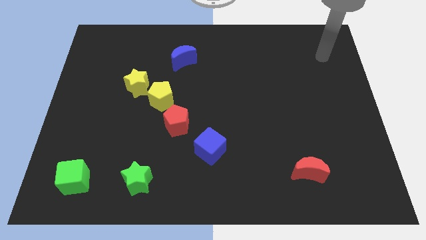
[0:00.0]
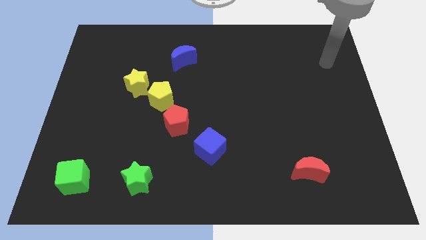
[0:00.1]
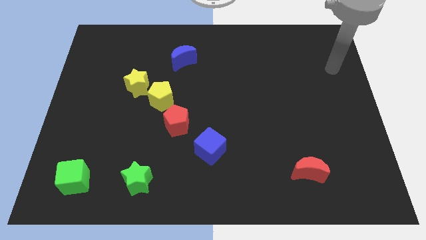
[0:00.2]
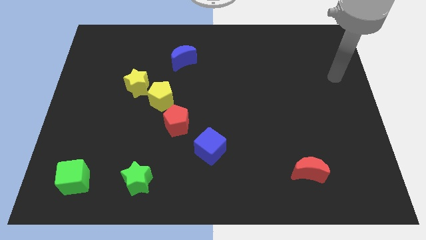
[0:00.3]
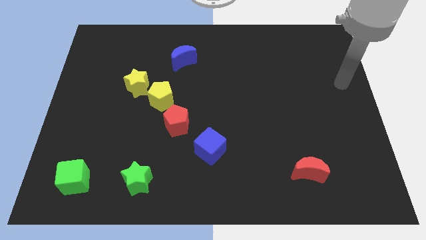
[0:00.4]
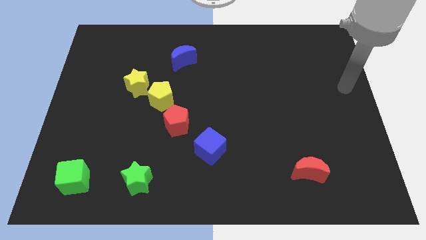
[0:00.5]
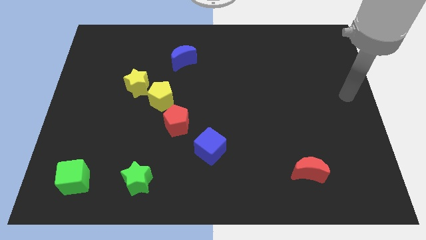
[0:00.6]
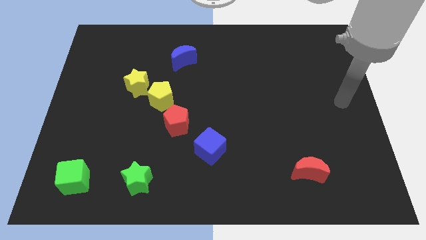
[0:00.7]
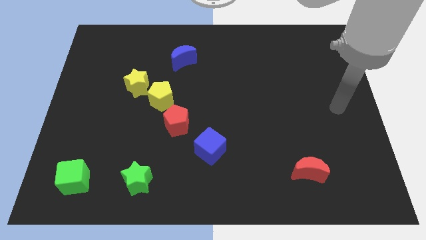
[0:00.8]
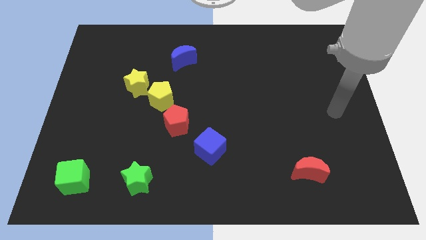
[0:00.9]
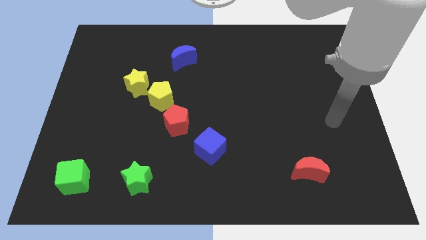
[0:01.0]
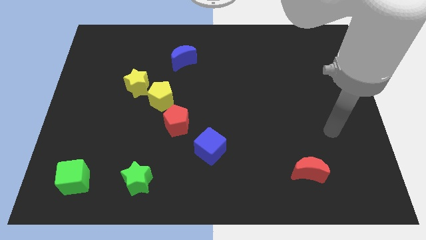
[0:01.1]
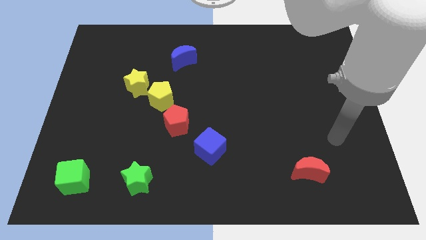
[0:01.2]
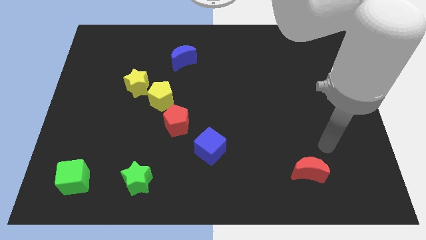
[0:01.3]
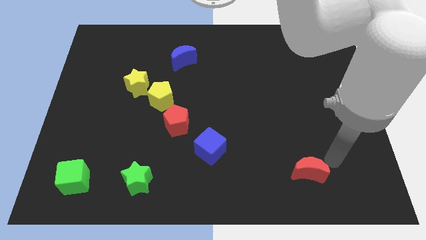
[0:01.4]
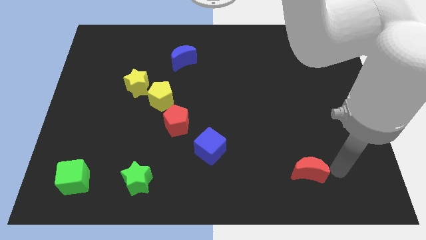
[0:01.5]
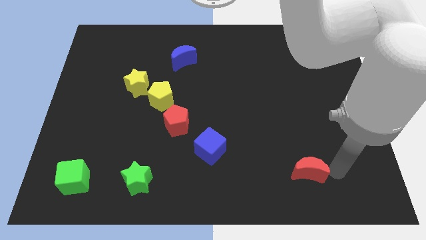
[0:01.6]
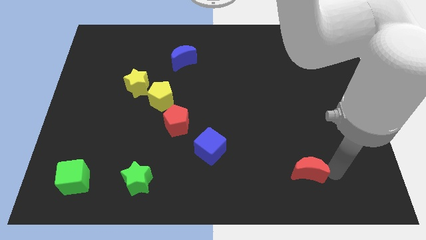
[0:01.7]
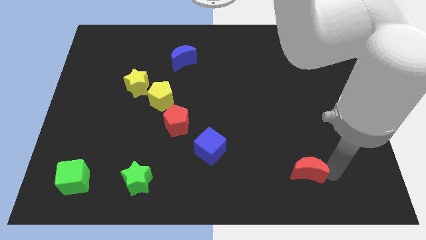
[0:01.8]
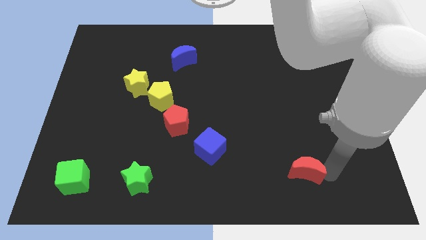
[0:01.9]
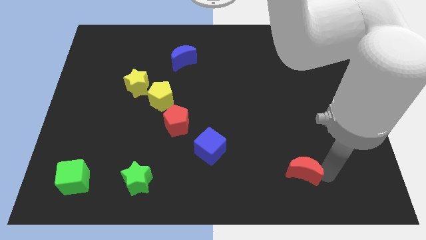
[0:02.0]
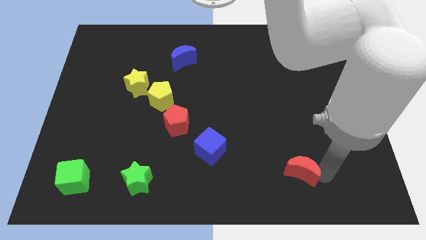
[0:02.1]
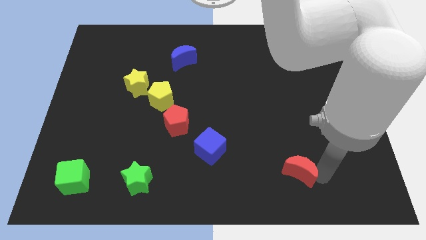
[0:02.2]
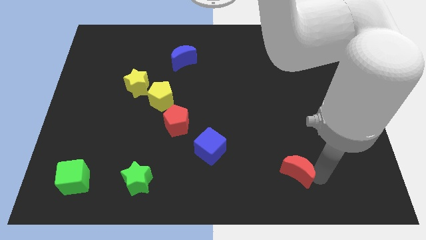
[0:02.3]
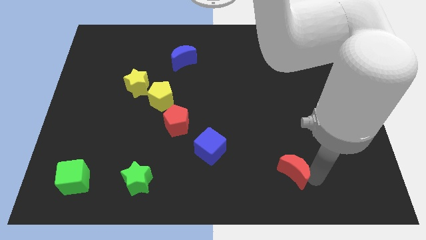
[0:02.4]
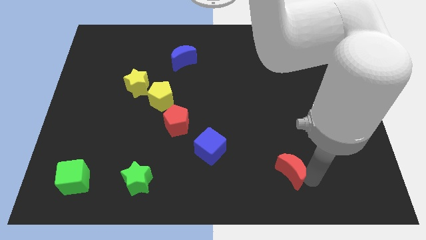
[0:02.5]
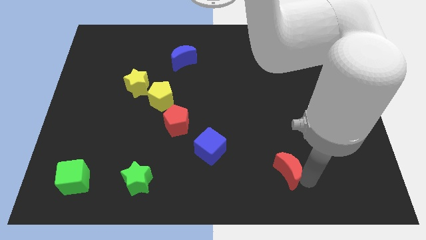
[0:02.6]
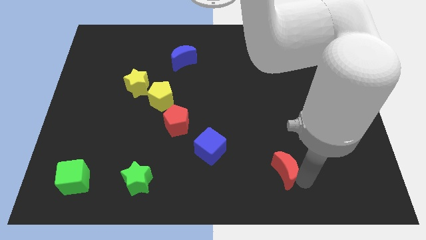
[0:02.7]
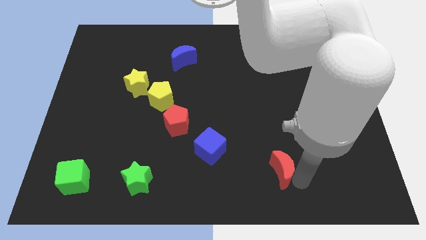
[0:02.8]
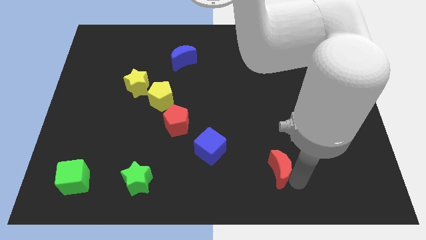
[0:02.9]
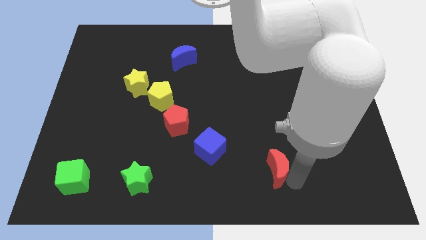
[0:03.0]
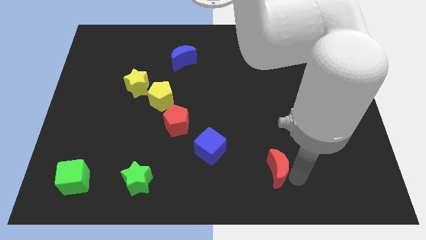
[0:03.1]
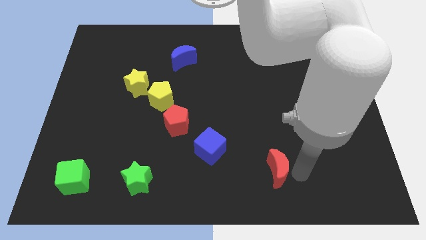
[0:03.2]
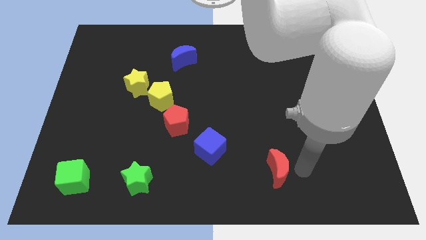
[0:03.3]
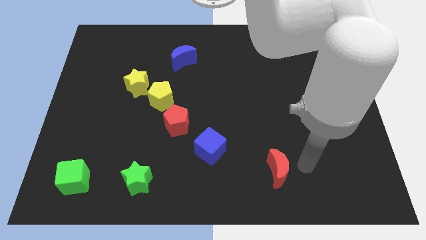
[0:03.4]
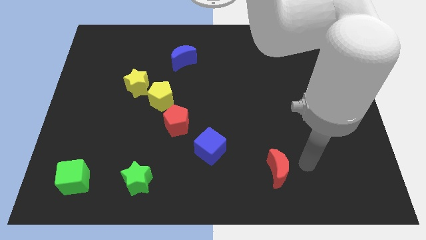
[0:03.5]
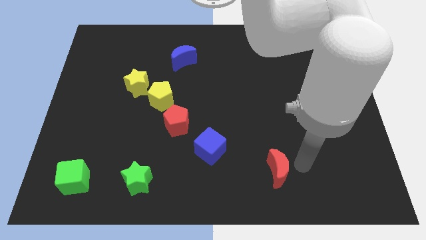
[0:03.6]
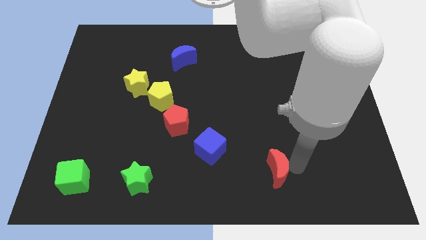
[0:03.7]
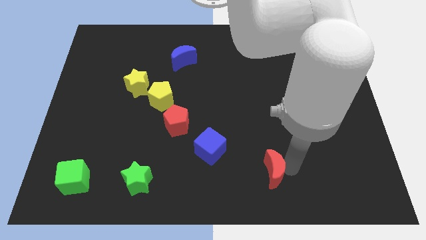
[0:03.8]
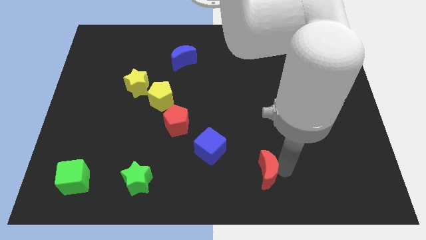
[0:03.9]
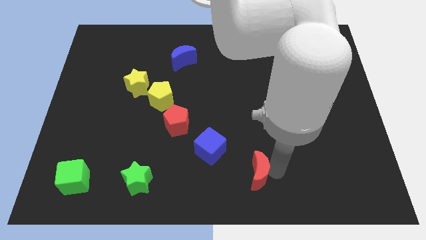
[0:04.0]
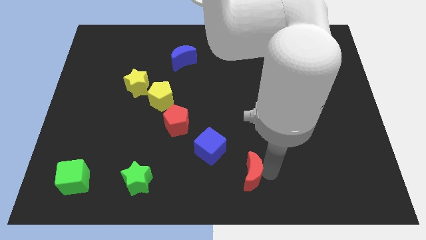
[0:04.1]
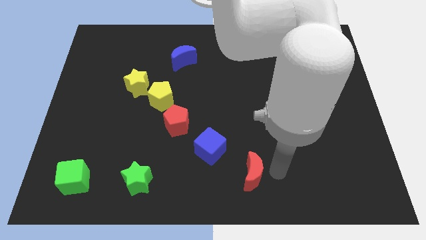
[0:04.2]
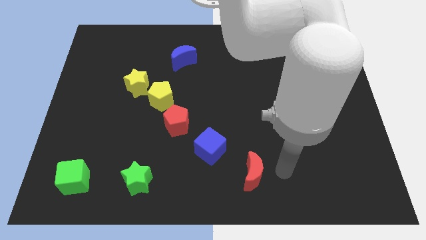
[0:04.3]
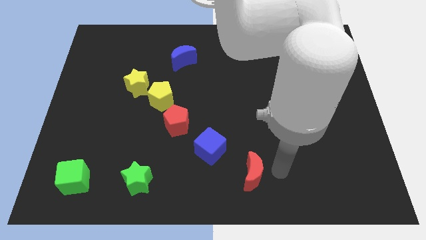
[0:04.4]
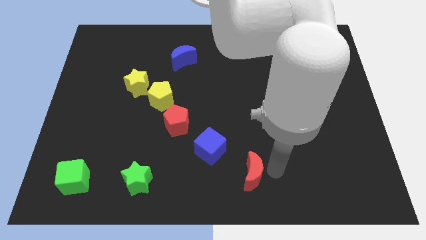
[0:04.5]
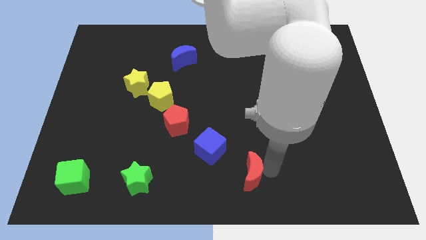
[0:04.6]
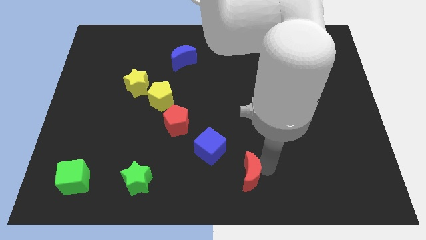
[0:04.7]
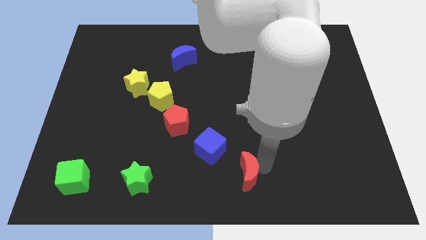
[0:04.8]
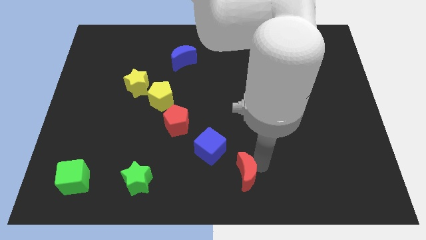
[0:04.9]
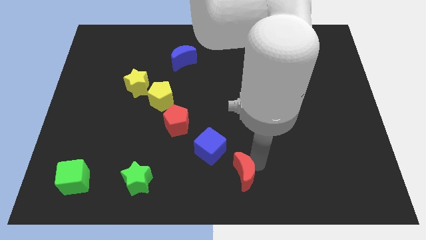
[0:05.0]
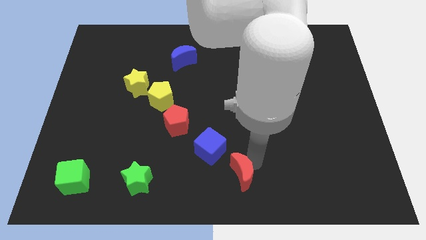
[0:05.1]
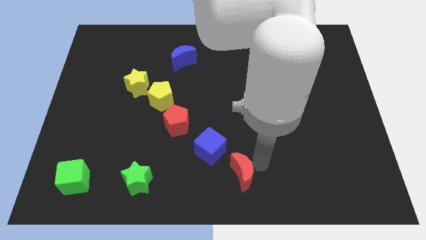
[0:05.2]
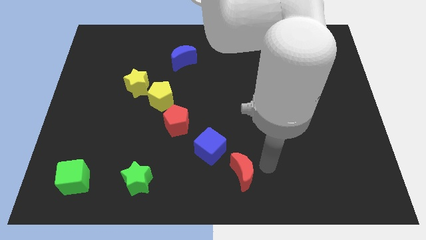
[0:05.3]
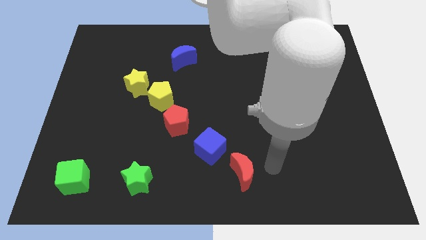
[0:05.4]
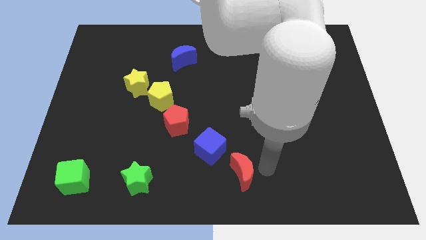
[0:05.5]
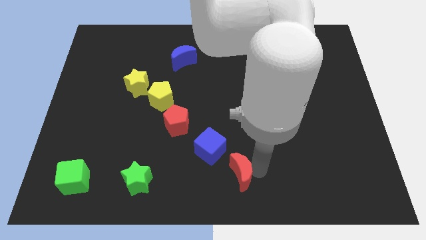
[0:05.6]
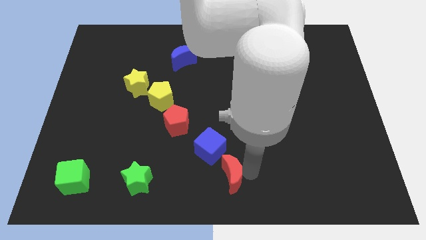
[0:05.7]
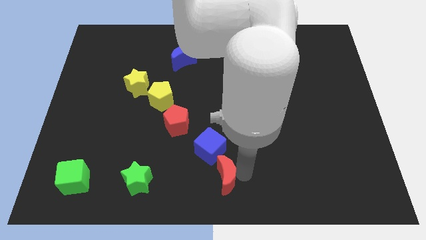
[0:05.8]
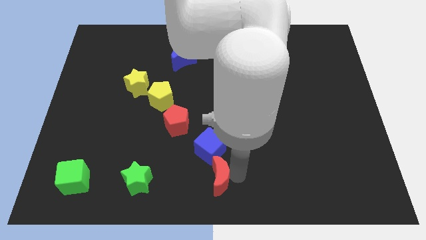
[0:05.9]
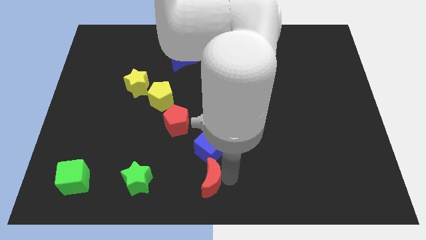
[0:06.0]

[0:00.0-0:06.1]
put the red moon right of the green star

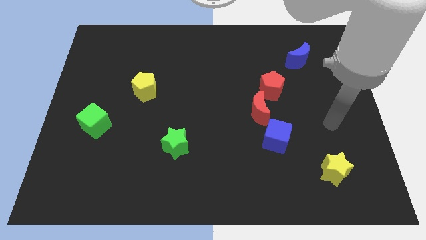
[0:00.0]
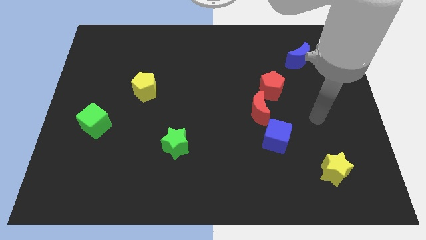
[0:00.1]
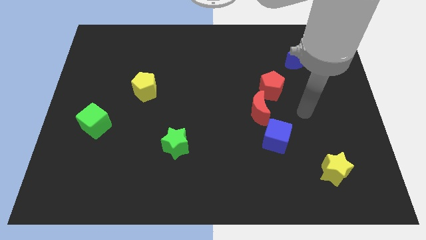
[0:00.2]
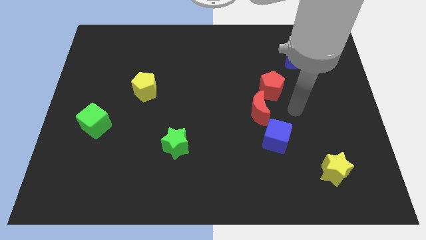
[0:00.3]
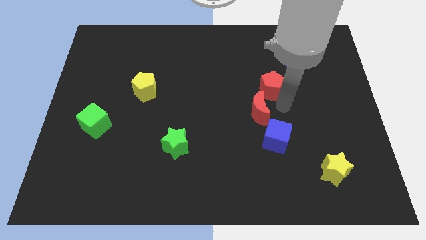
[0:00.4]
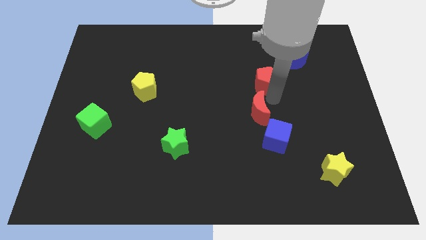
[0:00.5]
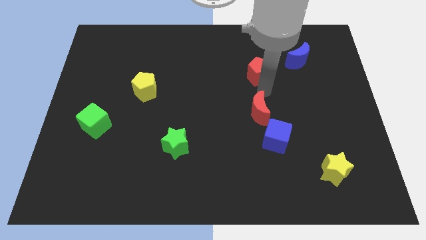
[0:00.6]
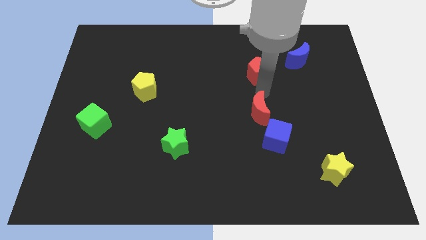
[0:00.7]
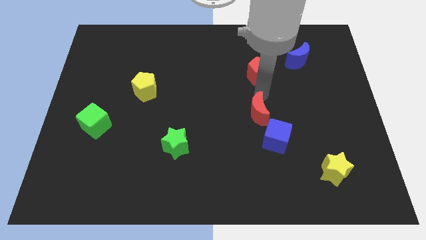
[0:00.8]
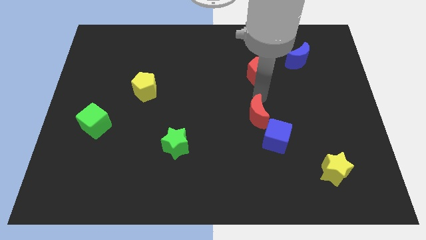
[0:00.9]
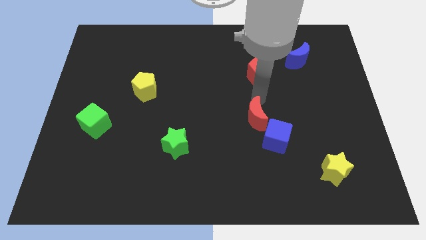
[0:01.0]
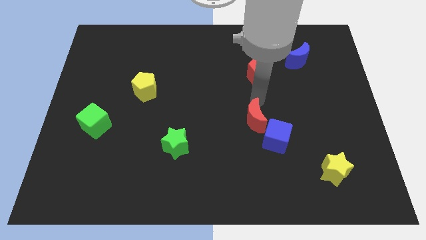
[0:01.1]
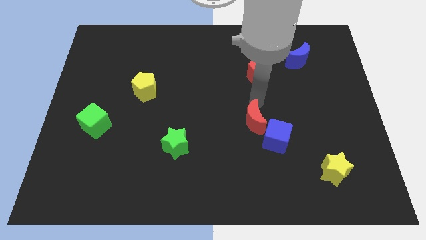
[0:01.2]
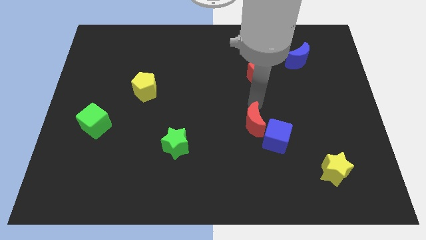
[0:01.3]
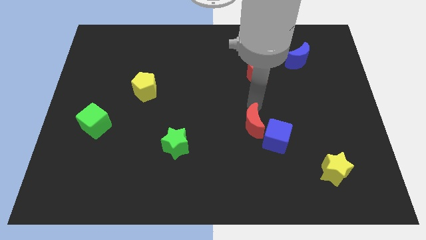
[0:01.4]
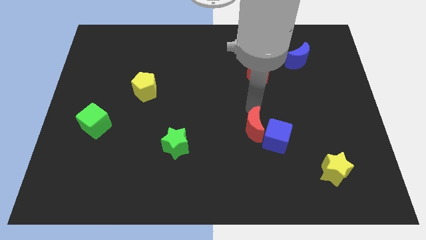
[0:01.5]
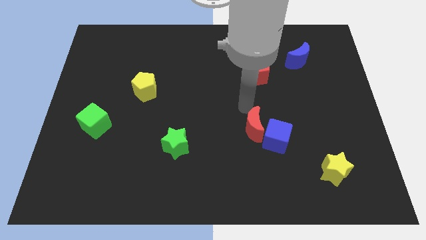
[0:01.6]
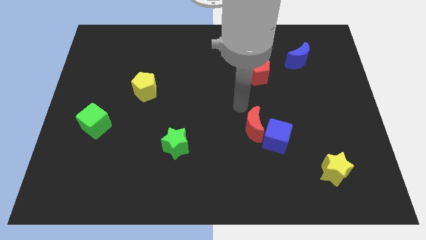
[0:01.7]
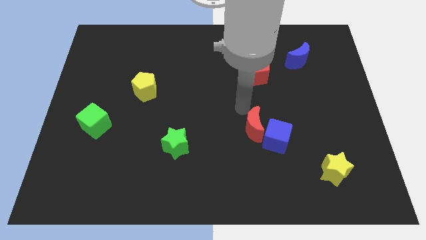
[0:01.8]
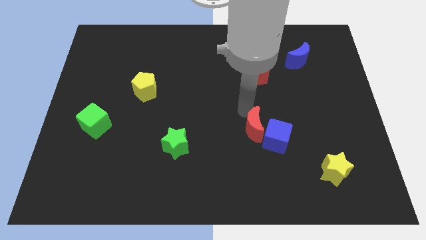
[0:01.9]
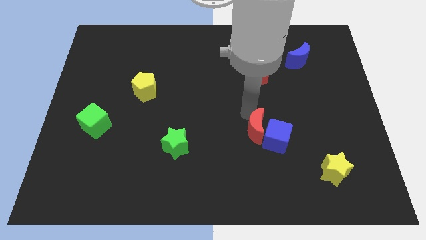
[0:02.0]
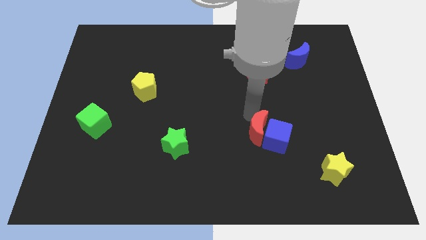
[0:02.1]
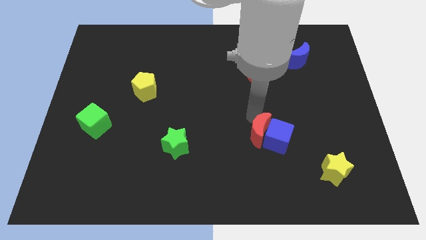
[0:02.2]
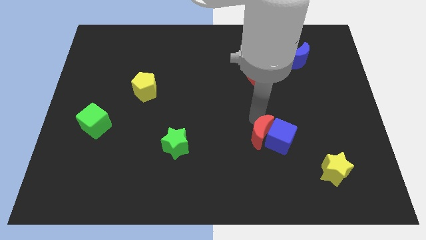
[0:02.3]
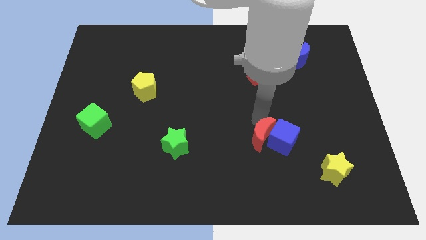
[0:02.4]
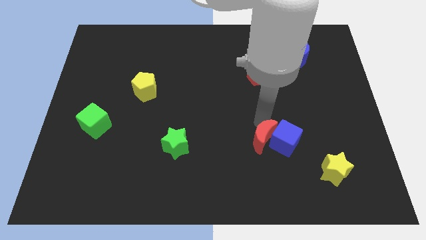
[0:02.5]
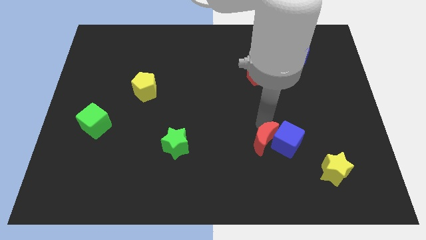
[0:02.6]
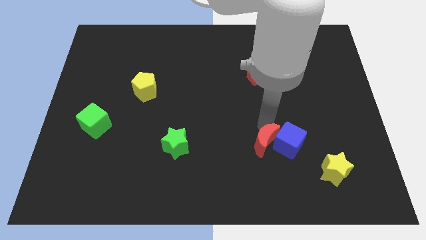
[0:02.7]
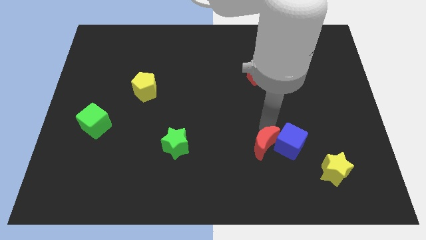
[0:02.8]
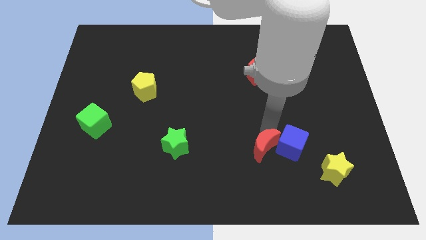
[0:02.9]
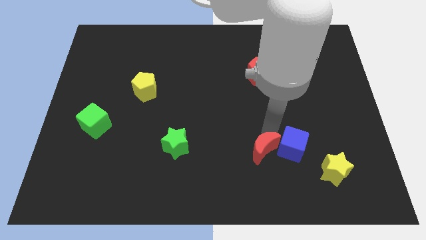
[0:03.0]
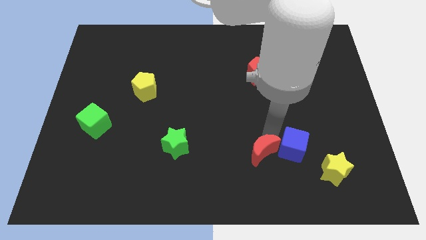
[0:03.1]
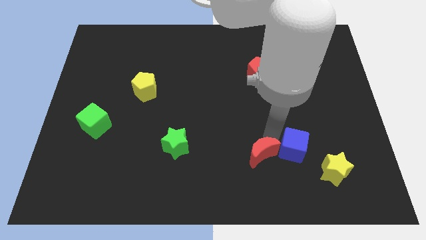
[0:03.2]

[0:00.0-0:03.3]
move the red moon just left of the yellow star
